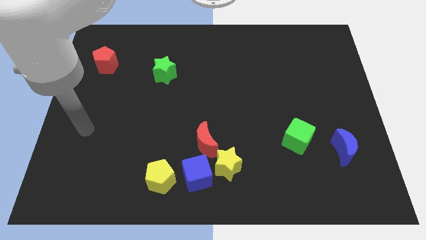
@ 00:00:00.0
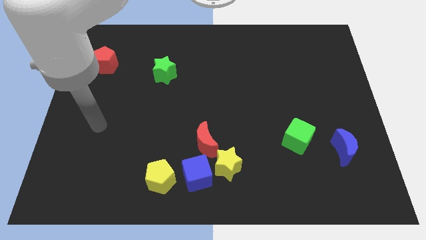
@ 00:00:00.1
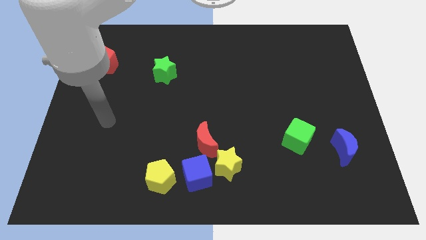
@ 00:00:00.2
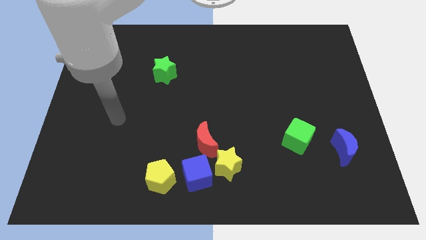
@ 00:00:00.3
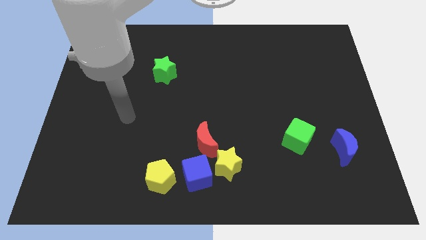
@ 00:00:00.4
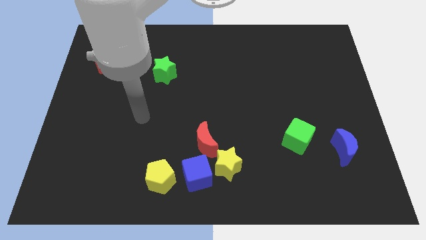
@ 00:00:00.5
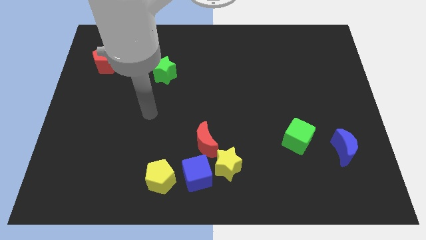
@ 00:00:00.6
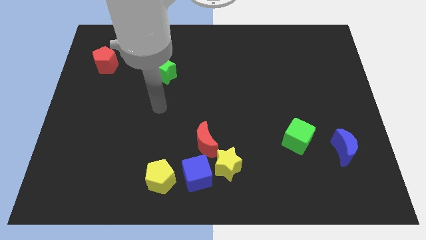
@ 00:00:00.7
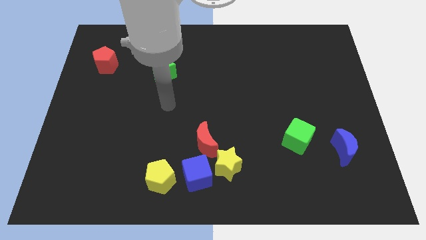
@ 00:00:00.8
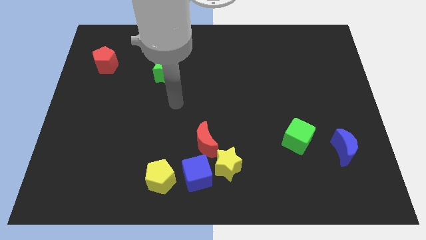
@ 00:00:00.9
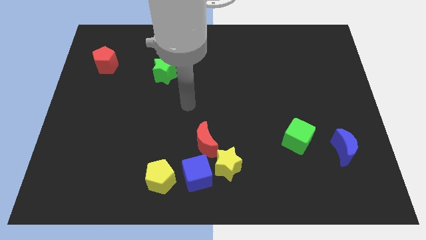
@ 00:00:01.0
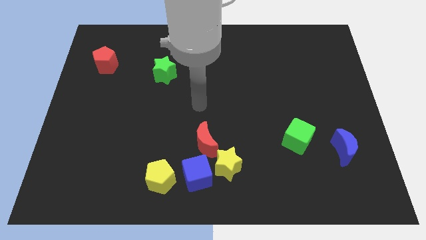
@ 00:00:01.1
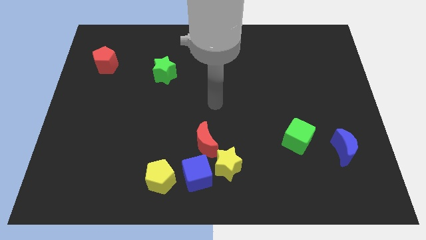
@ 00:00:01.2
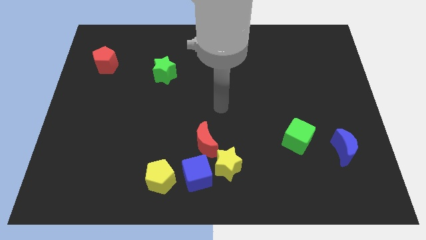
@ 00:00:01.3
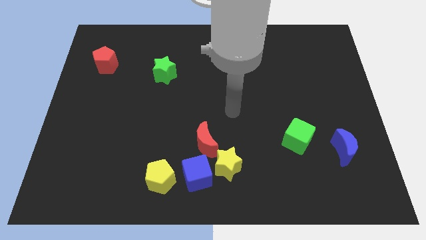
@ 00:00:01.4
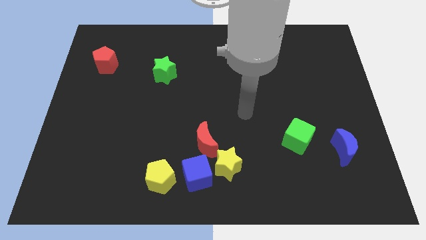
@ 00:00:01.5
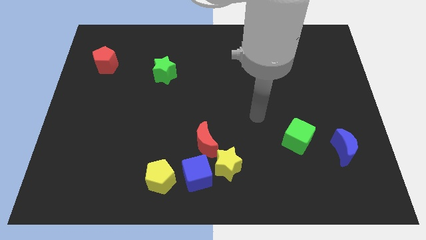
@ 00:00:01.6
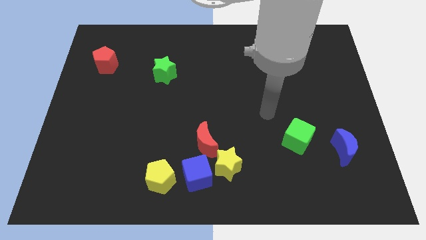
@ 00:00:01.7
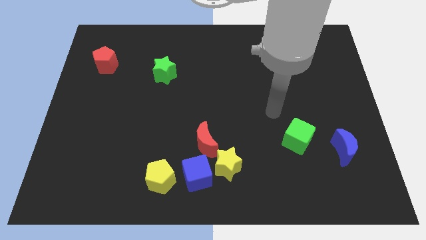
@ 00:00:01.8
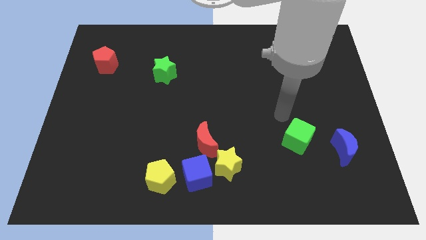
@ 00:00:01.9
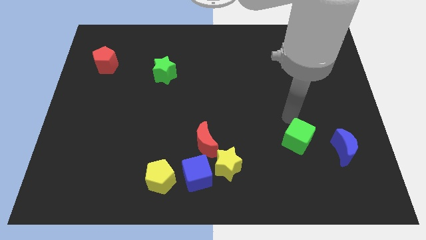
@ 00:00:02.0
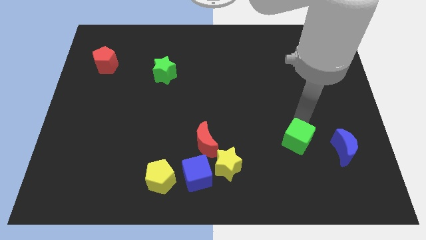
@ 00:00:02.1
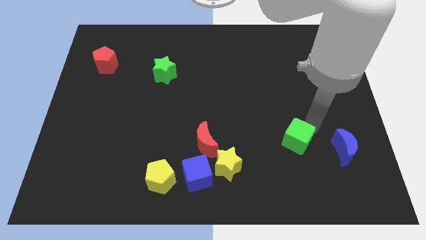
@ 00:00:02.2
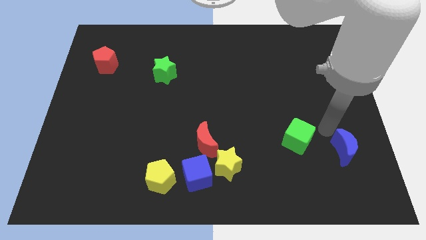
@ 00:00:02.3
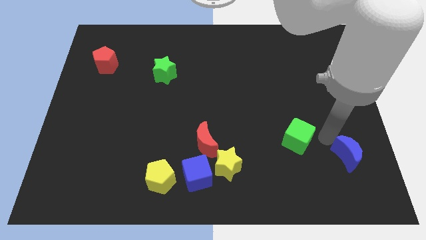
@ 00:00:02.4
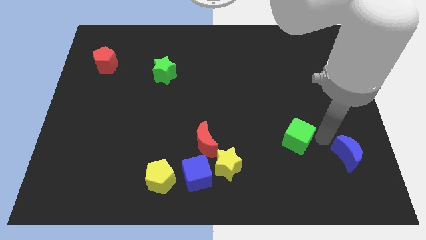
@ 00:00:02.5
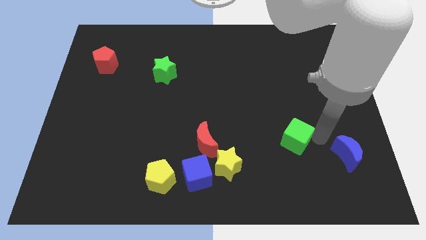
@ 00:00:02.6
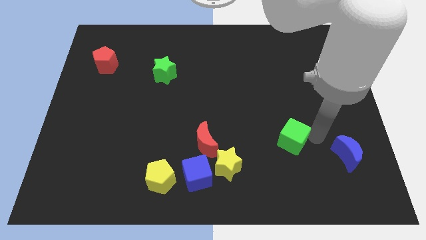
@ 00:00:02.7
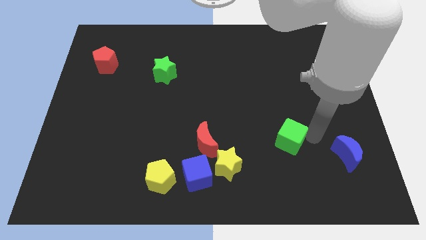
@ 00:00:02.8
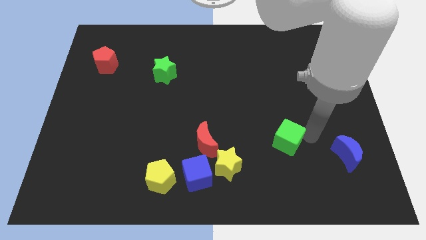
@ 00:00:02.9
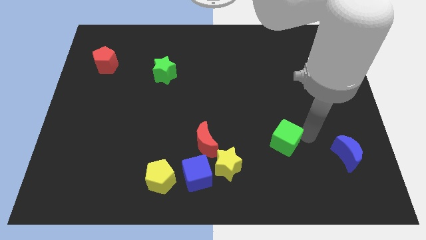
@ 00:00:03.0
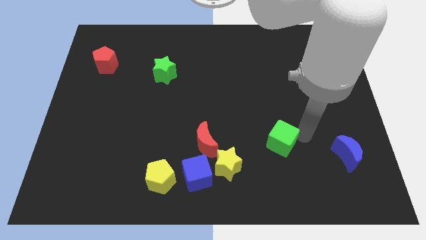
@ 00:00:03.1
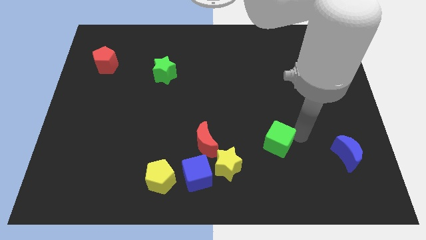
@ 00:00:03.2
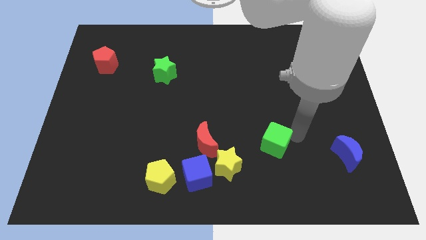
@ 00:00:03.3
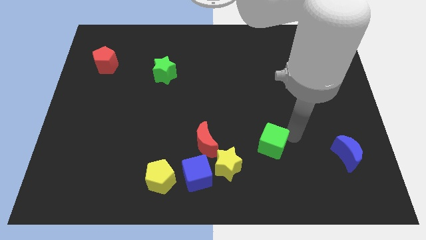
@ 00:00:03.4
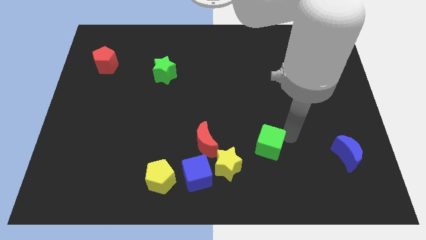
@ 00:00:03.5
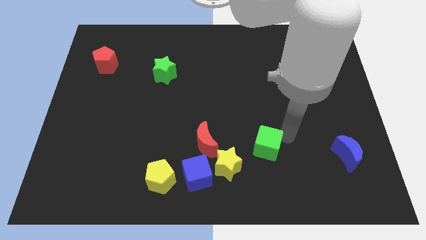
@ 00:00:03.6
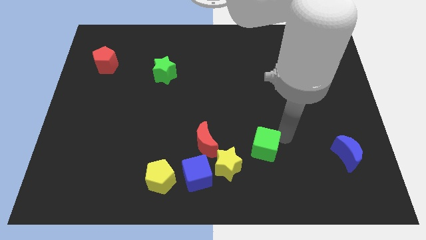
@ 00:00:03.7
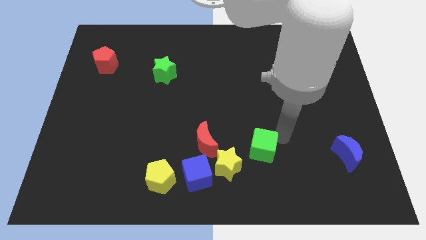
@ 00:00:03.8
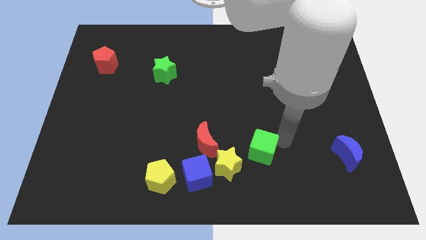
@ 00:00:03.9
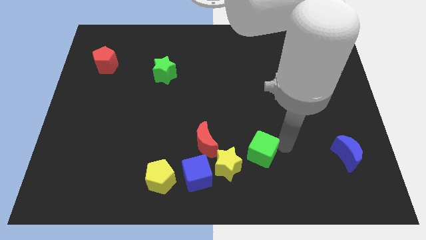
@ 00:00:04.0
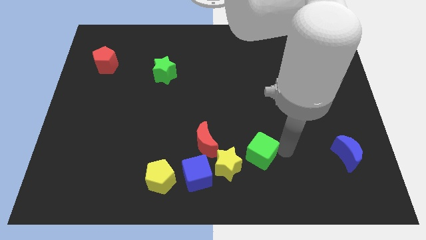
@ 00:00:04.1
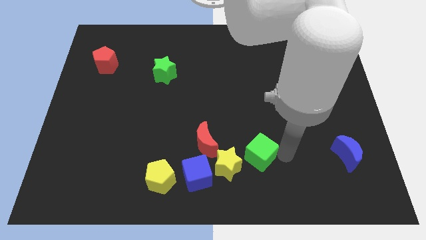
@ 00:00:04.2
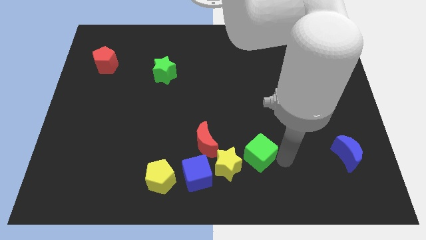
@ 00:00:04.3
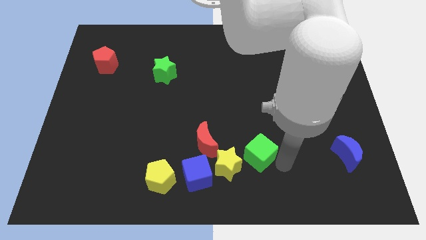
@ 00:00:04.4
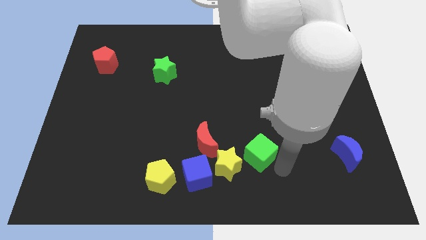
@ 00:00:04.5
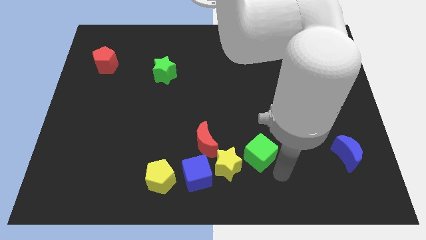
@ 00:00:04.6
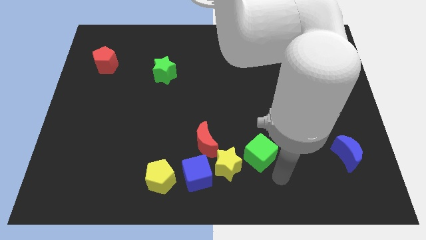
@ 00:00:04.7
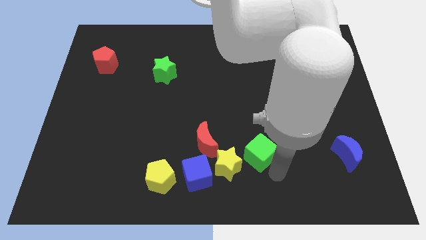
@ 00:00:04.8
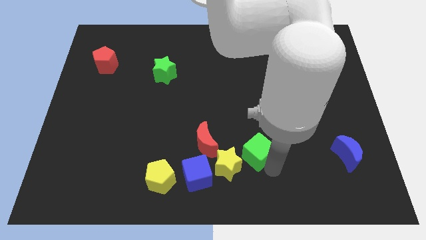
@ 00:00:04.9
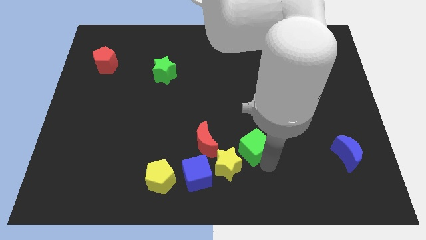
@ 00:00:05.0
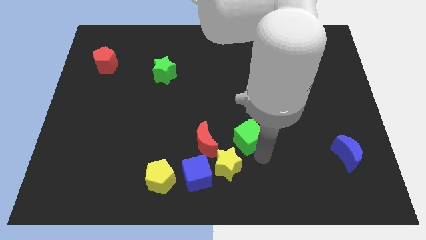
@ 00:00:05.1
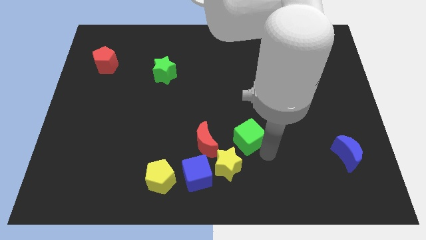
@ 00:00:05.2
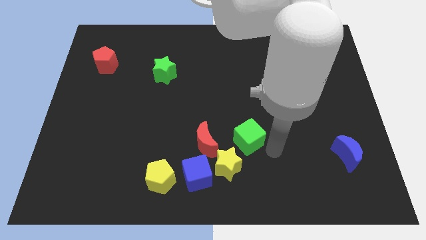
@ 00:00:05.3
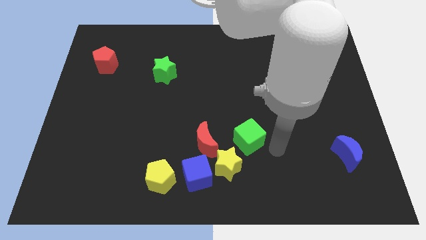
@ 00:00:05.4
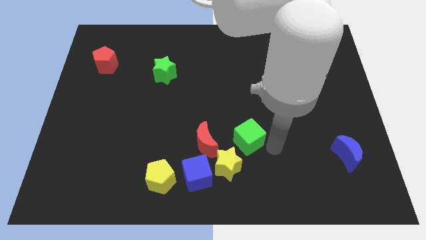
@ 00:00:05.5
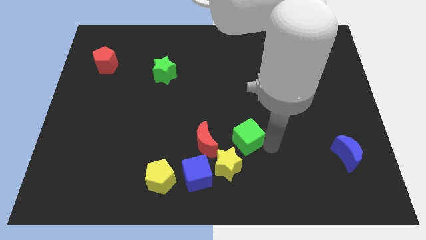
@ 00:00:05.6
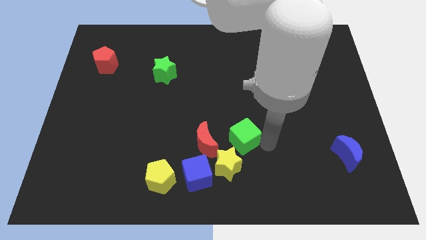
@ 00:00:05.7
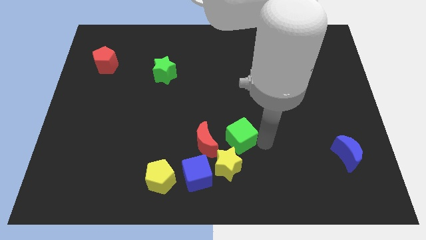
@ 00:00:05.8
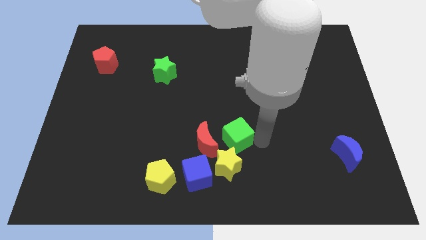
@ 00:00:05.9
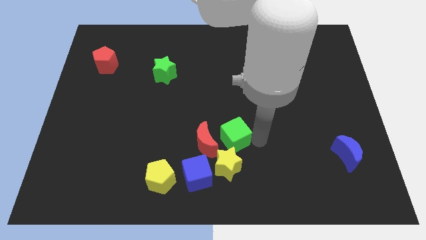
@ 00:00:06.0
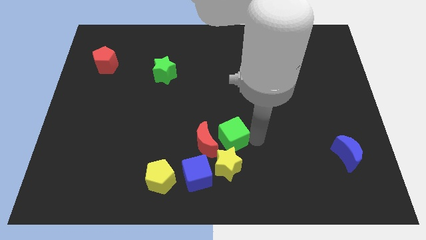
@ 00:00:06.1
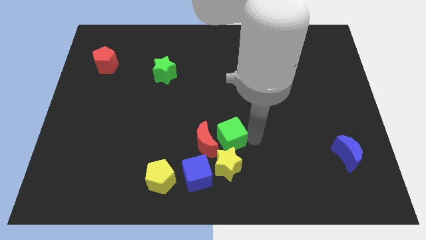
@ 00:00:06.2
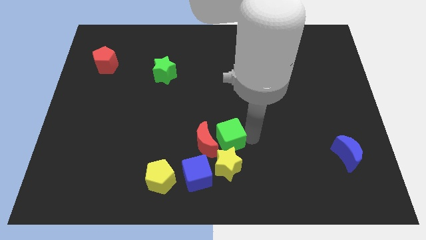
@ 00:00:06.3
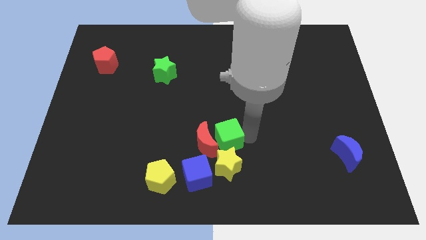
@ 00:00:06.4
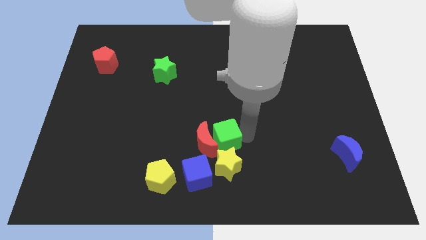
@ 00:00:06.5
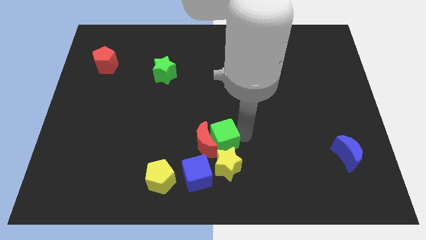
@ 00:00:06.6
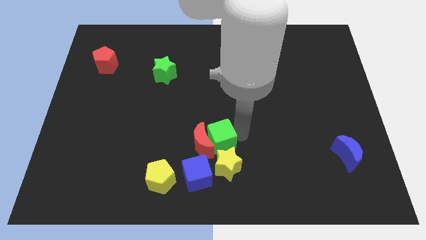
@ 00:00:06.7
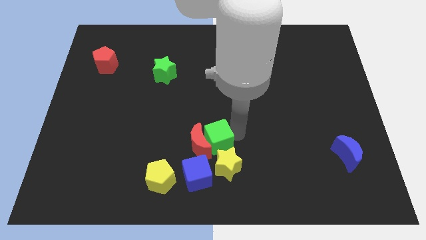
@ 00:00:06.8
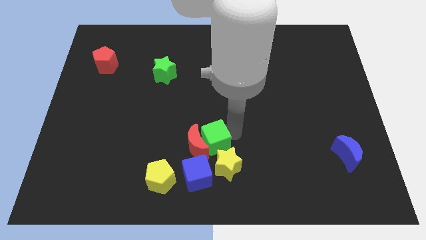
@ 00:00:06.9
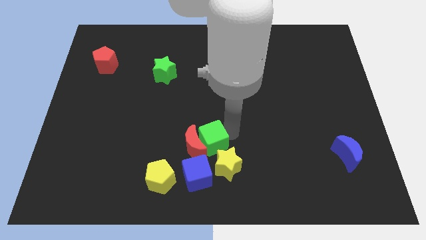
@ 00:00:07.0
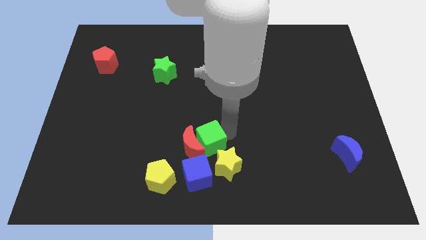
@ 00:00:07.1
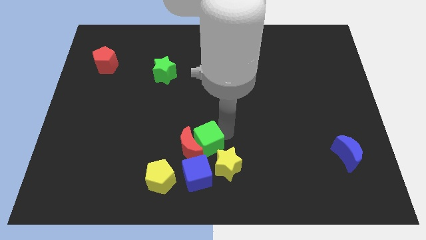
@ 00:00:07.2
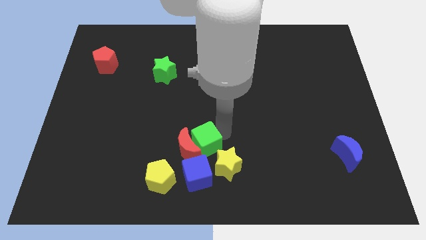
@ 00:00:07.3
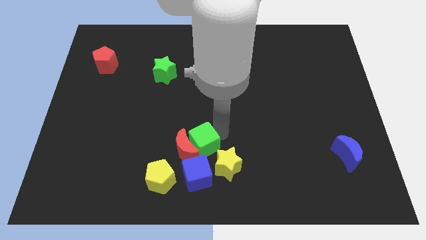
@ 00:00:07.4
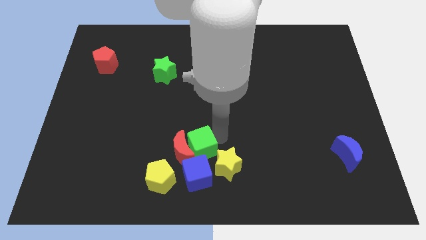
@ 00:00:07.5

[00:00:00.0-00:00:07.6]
slide the green cube to the left of the yellow star
